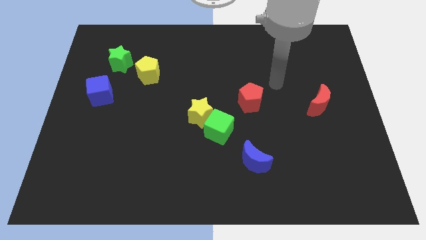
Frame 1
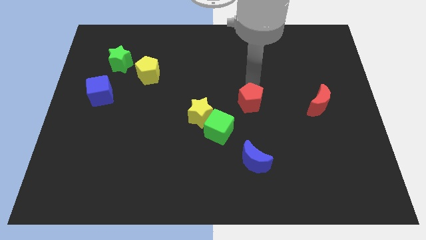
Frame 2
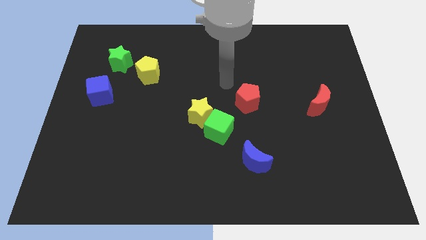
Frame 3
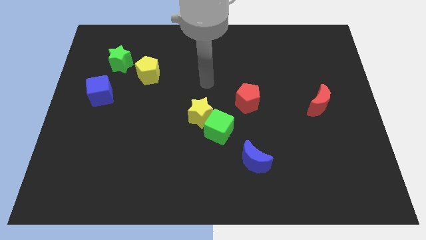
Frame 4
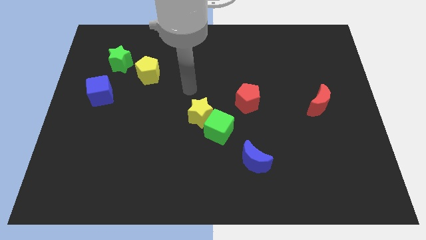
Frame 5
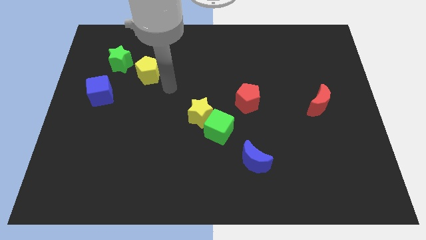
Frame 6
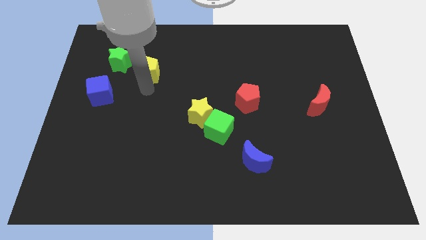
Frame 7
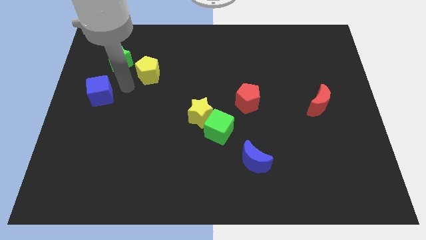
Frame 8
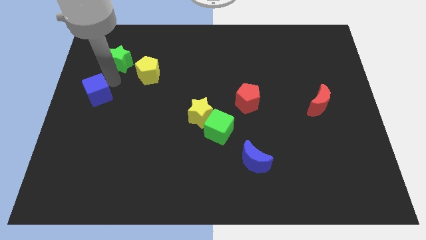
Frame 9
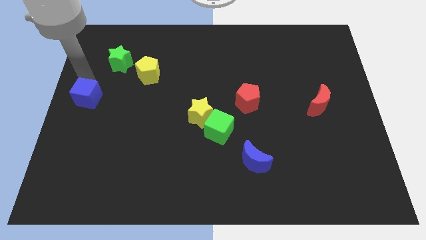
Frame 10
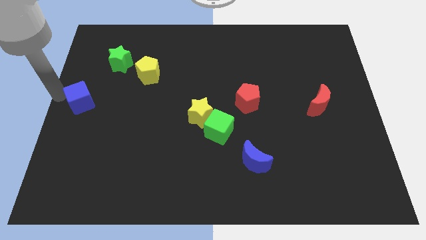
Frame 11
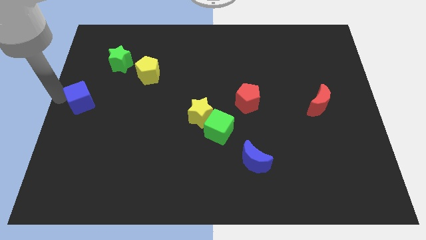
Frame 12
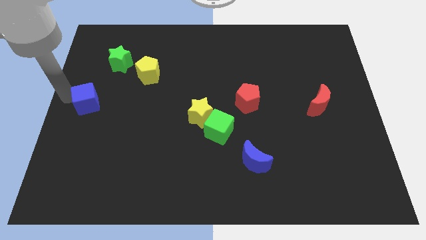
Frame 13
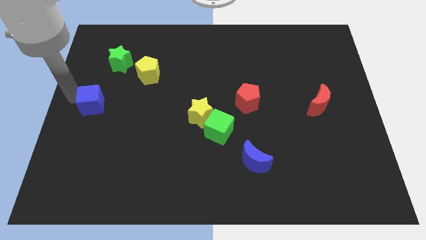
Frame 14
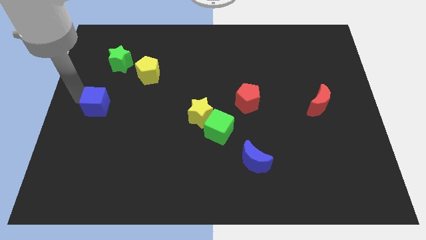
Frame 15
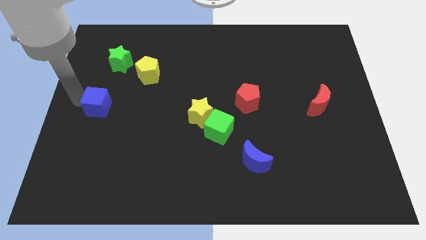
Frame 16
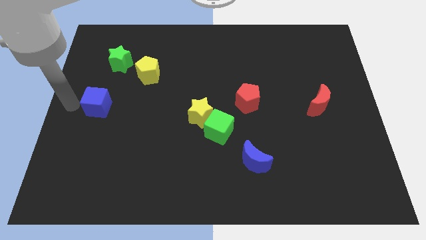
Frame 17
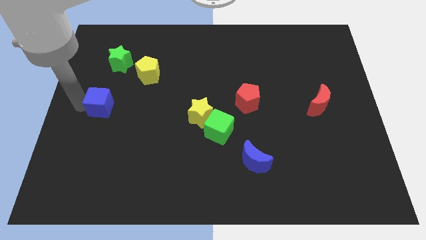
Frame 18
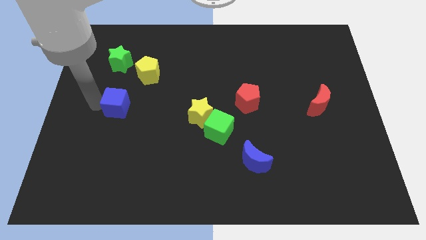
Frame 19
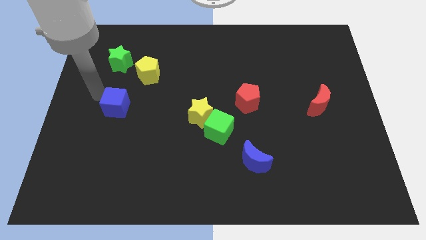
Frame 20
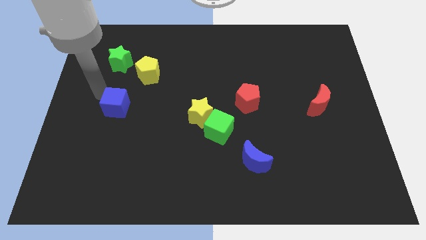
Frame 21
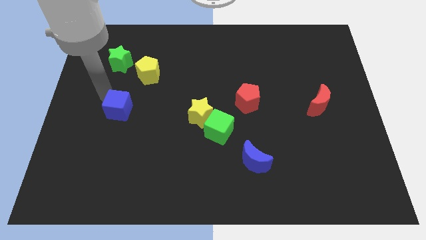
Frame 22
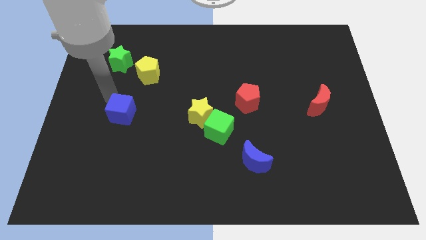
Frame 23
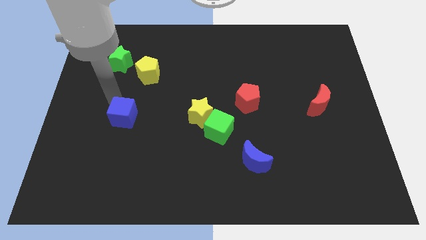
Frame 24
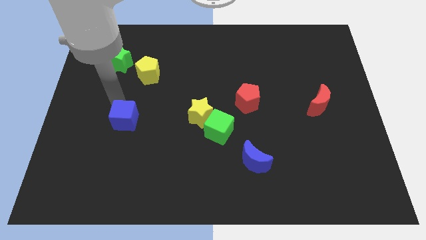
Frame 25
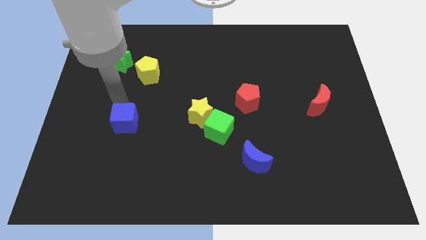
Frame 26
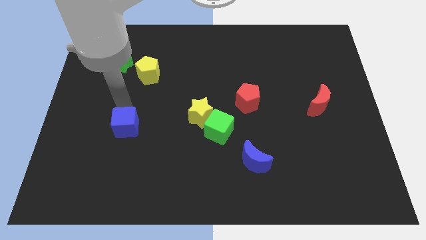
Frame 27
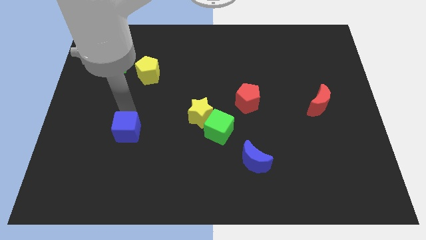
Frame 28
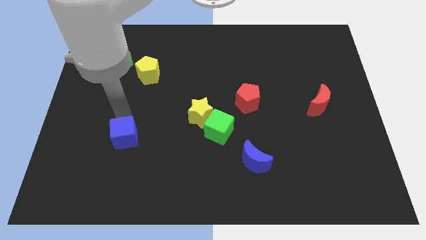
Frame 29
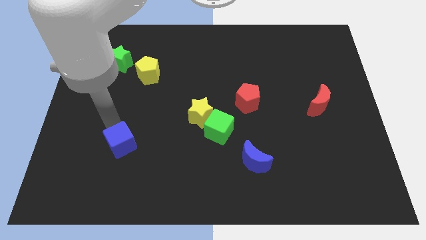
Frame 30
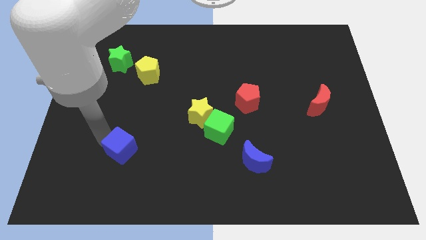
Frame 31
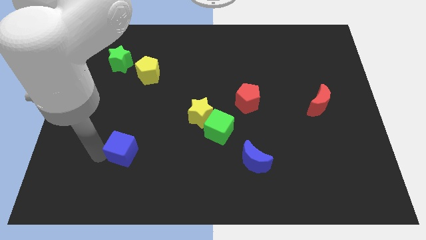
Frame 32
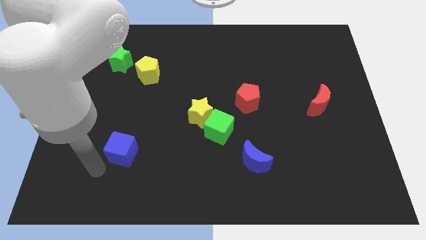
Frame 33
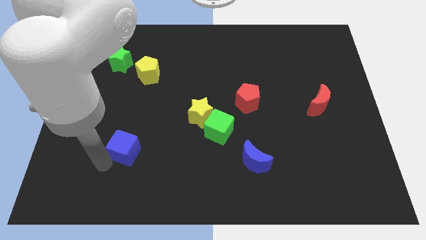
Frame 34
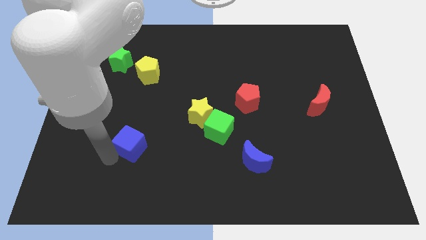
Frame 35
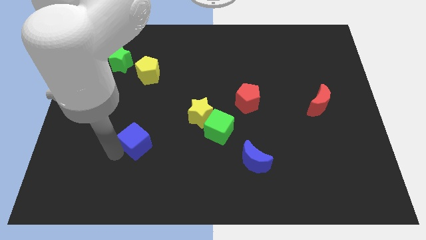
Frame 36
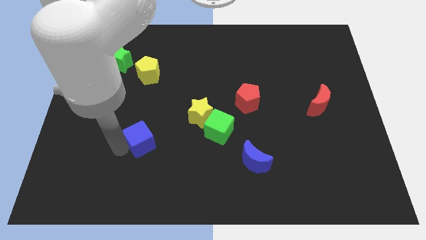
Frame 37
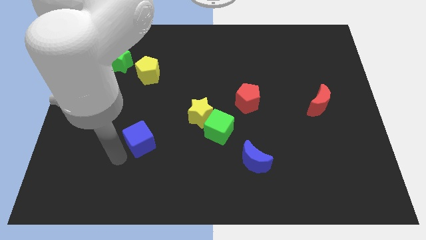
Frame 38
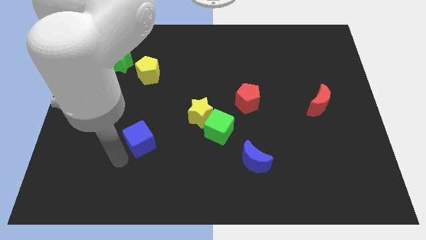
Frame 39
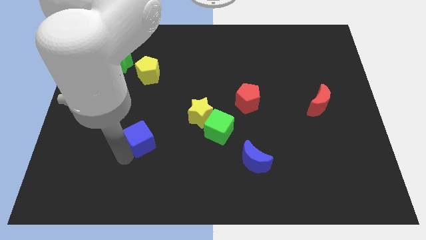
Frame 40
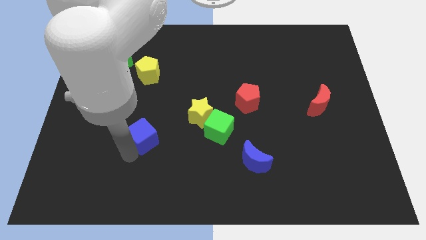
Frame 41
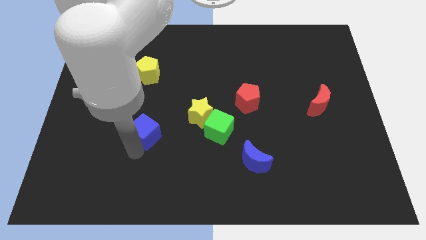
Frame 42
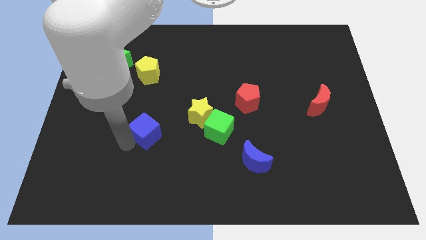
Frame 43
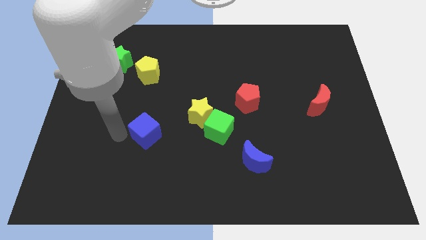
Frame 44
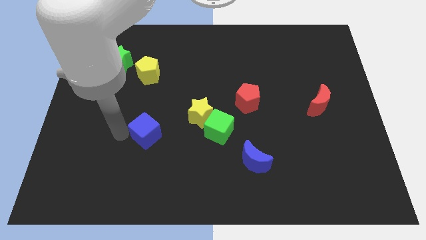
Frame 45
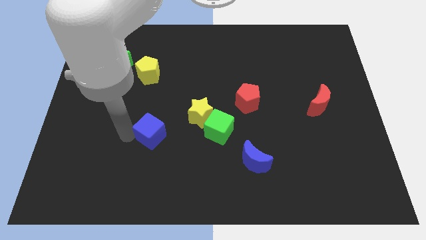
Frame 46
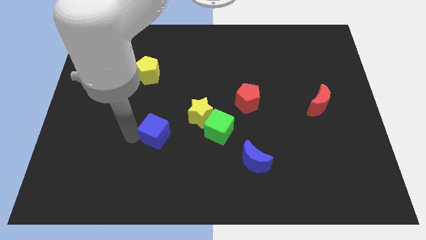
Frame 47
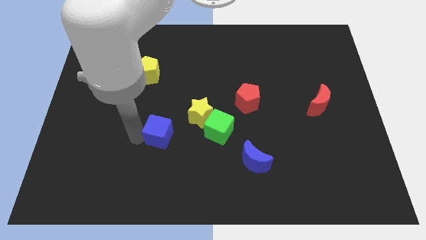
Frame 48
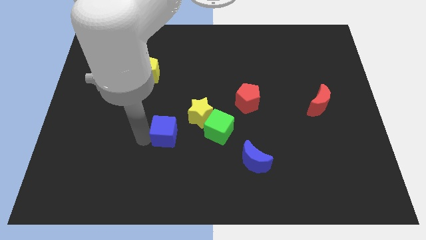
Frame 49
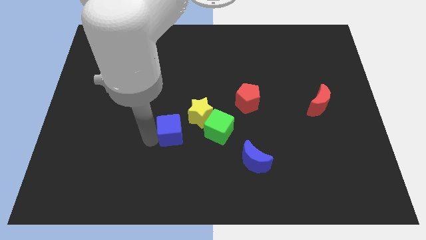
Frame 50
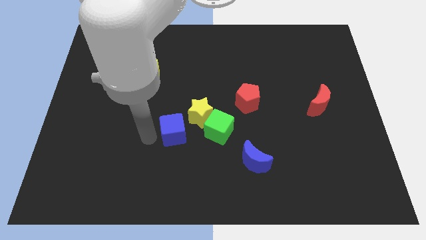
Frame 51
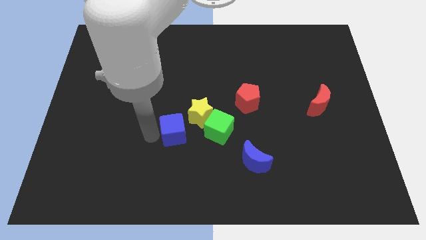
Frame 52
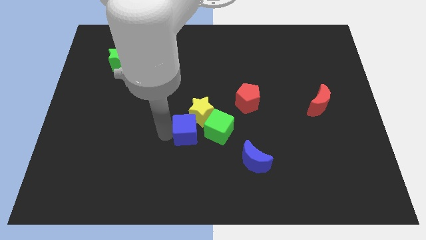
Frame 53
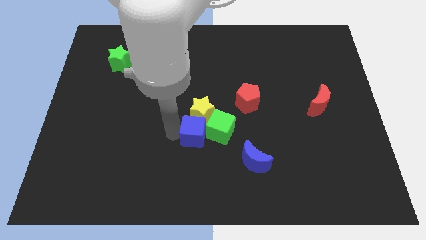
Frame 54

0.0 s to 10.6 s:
push the blue cube to the green cube

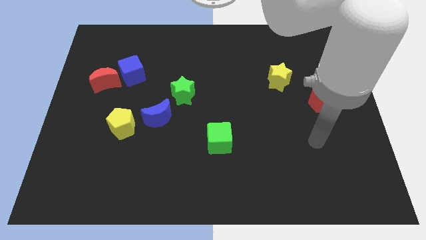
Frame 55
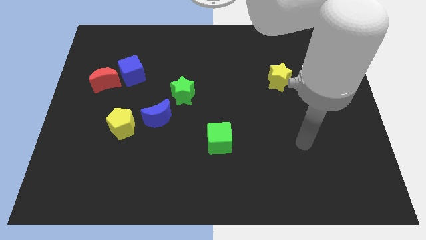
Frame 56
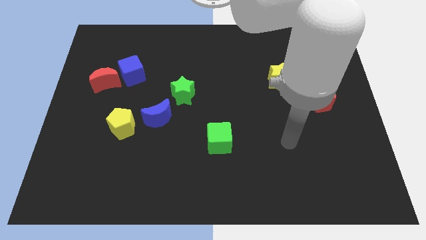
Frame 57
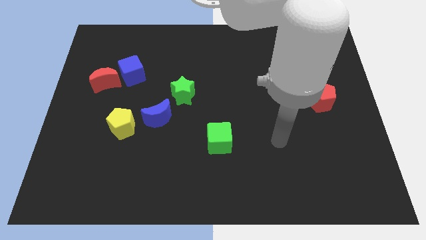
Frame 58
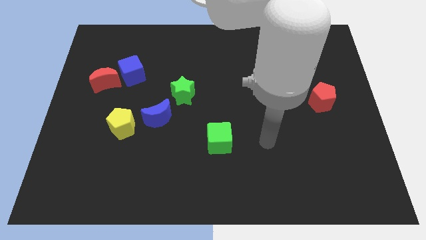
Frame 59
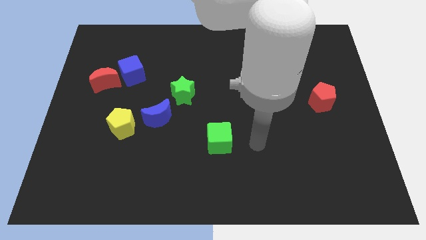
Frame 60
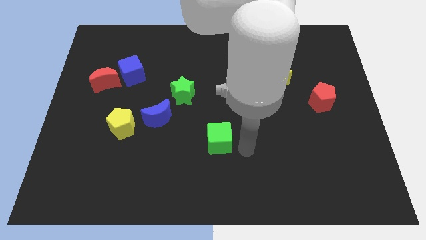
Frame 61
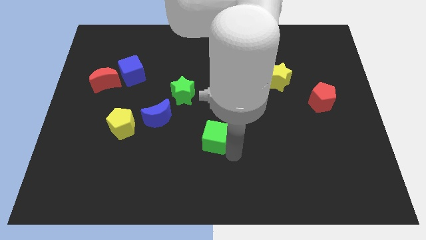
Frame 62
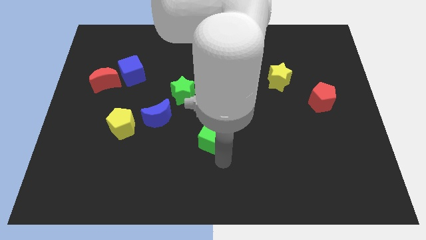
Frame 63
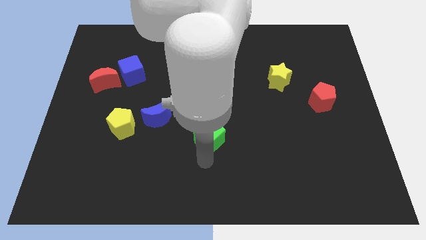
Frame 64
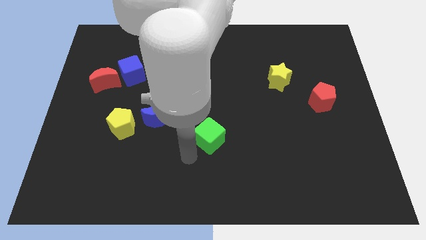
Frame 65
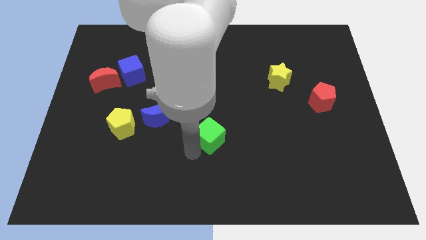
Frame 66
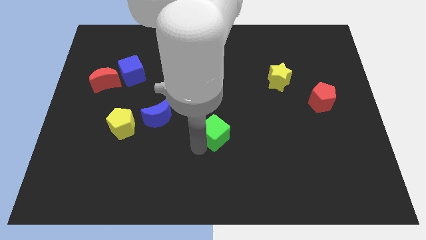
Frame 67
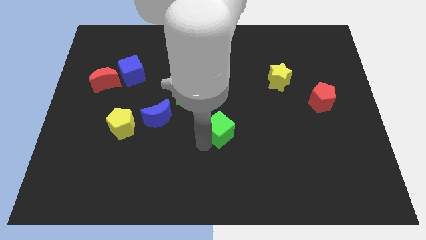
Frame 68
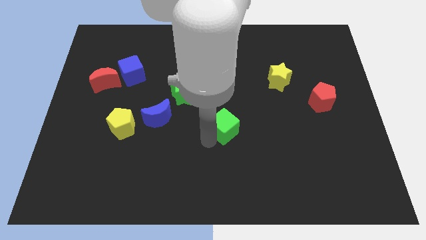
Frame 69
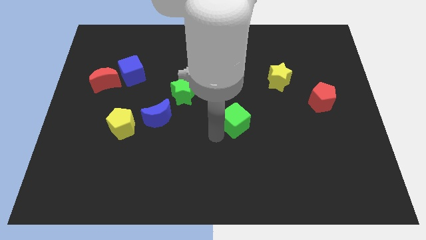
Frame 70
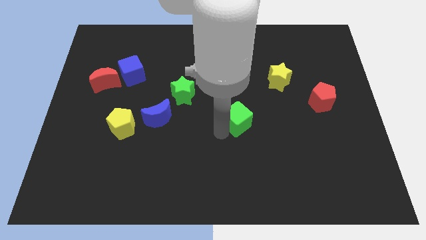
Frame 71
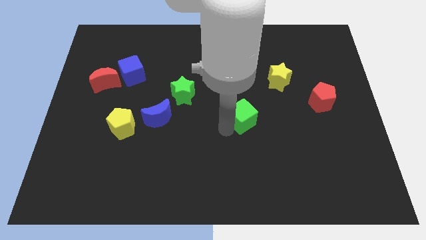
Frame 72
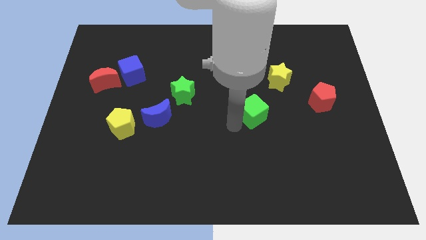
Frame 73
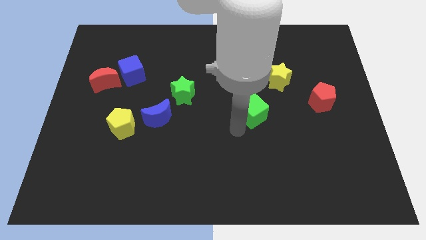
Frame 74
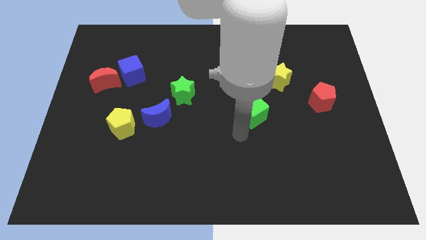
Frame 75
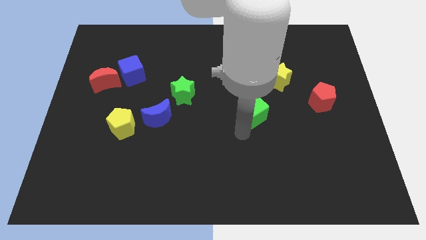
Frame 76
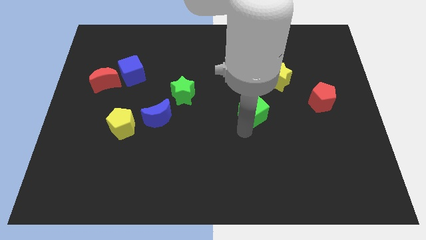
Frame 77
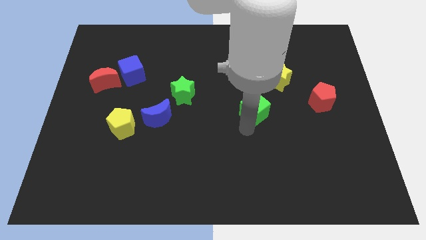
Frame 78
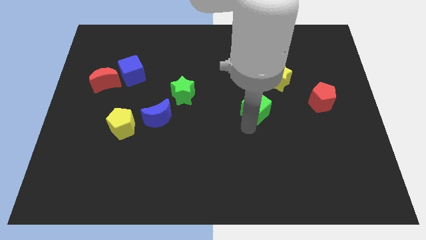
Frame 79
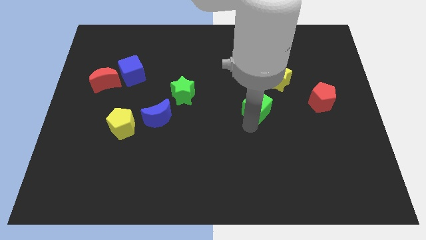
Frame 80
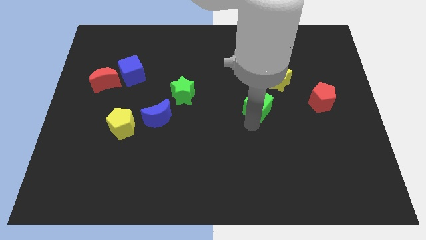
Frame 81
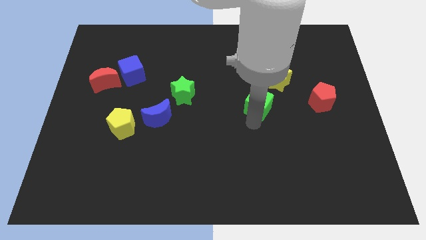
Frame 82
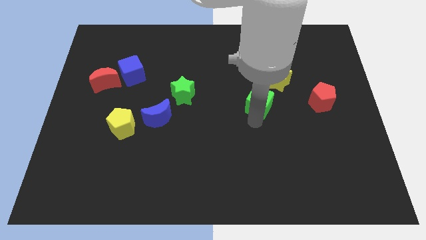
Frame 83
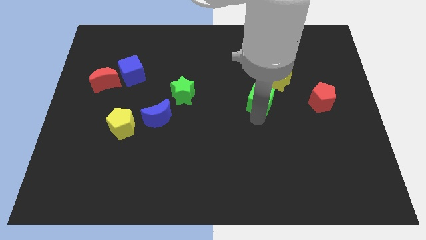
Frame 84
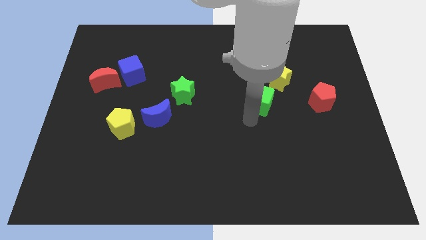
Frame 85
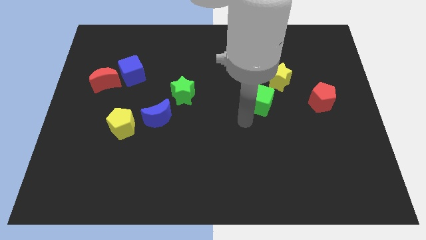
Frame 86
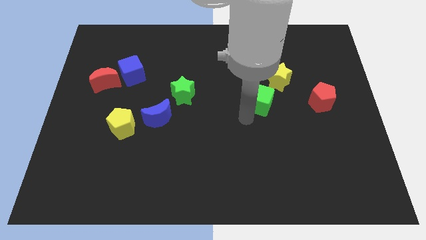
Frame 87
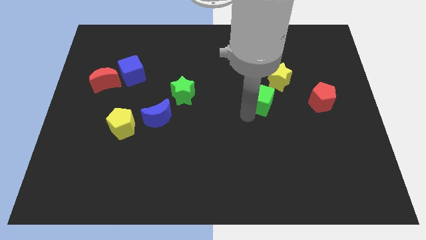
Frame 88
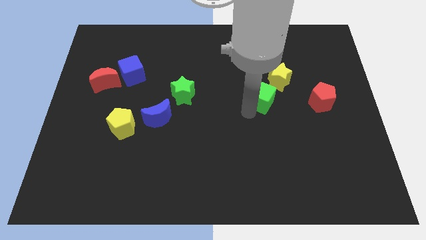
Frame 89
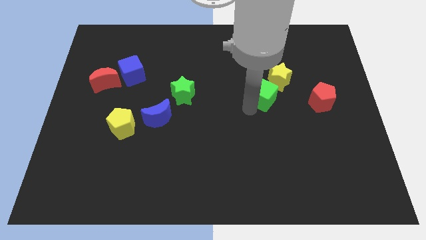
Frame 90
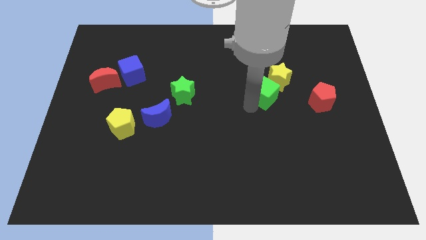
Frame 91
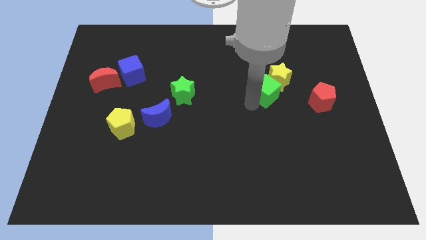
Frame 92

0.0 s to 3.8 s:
slide the green cube close to the yellow star
